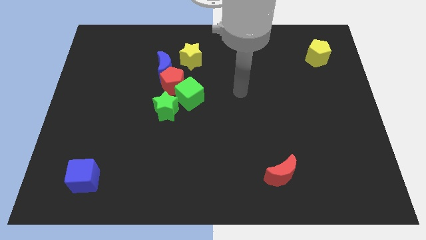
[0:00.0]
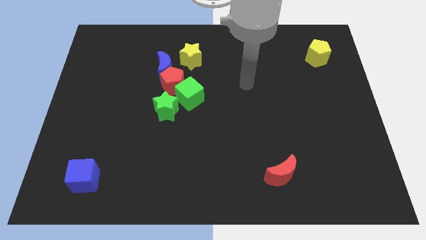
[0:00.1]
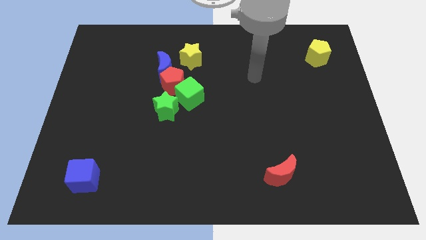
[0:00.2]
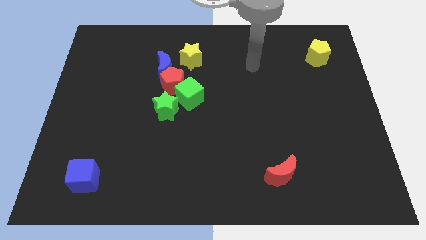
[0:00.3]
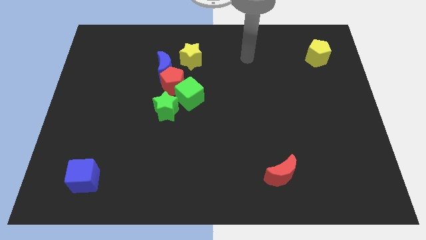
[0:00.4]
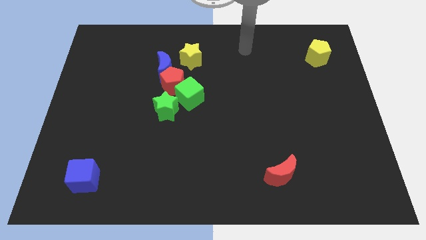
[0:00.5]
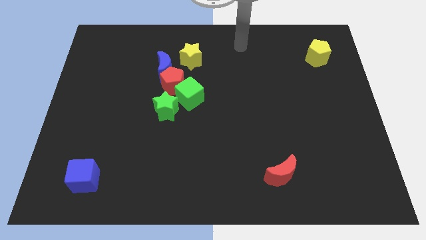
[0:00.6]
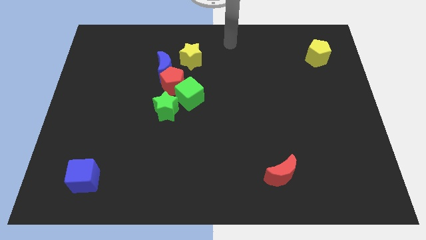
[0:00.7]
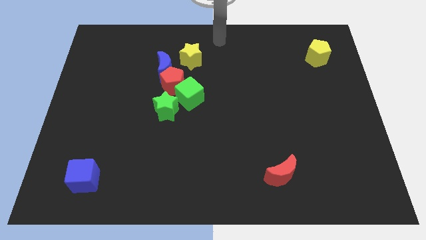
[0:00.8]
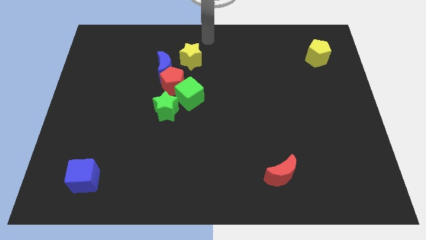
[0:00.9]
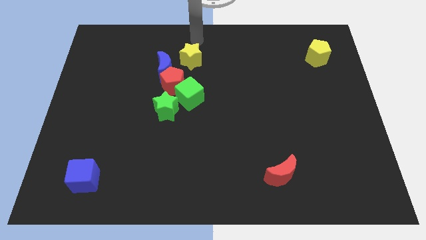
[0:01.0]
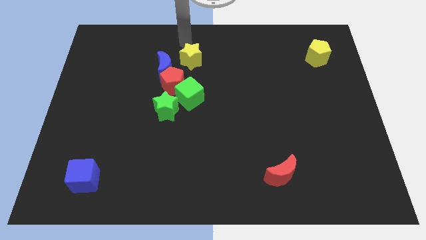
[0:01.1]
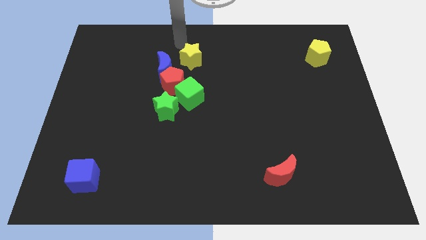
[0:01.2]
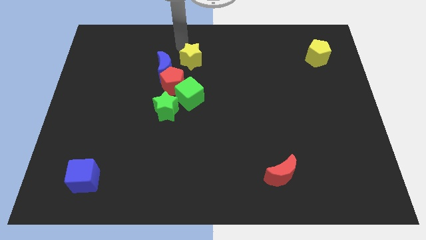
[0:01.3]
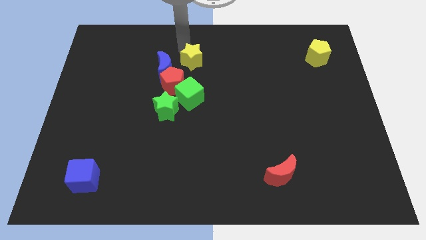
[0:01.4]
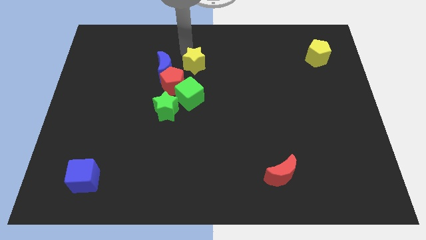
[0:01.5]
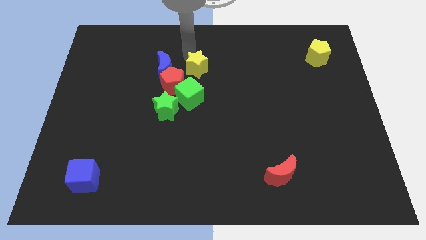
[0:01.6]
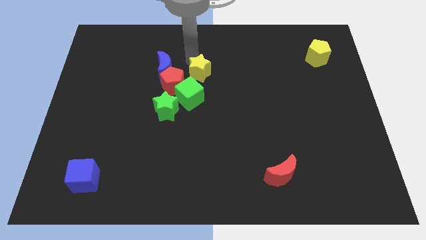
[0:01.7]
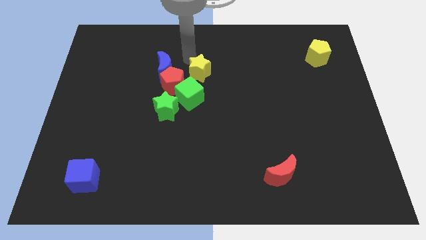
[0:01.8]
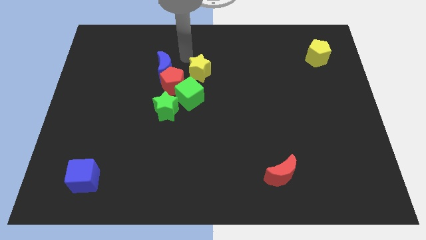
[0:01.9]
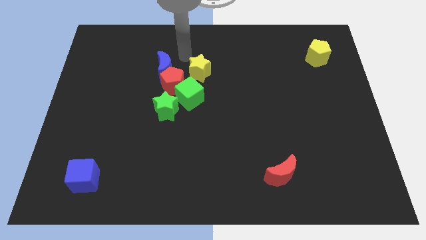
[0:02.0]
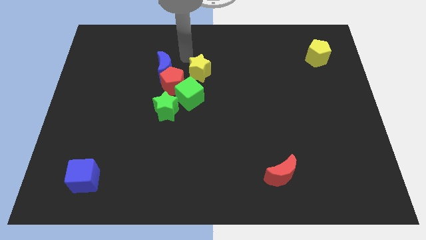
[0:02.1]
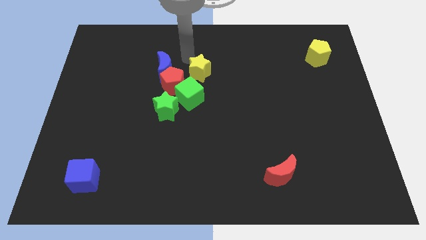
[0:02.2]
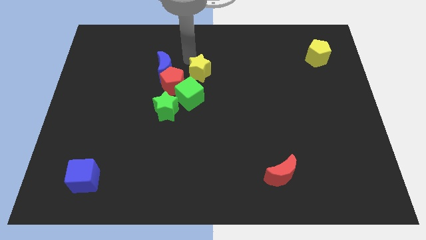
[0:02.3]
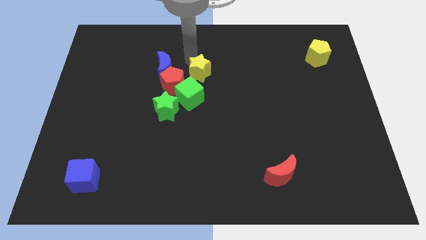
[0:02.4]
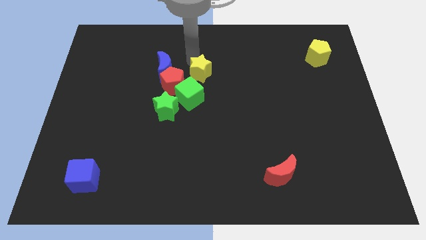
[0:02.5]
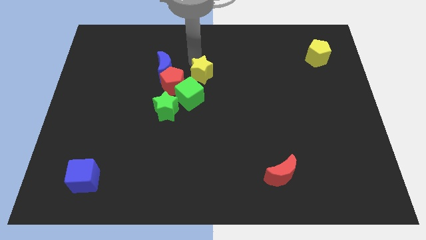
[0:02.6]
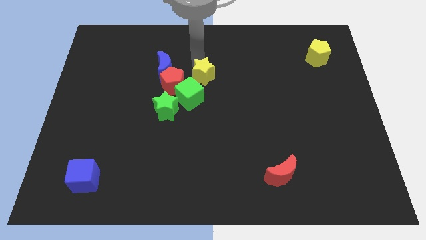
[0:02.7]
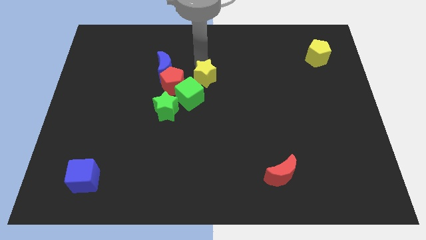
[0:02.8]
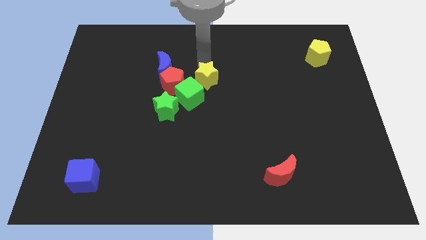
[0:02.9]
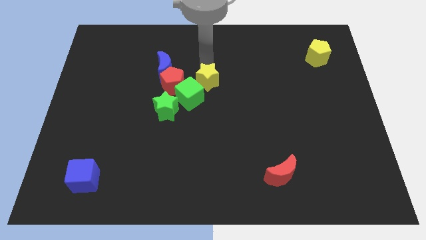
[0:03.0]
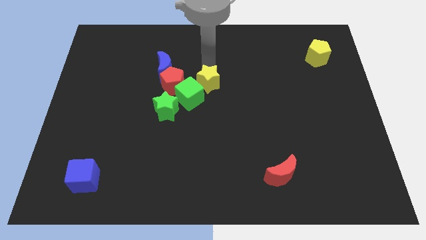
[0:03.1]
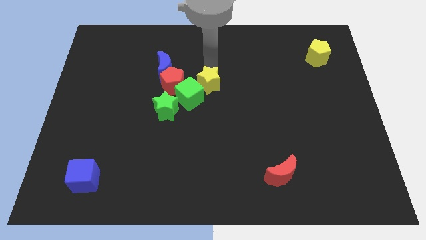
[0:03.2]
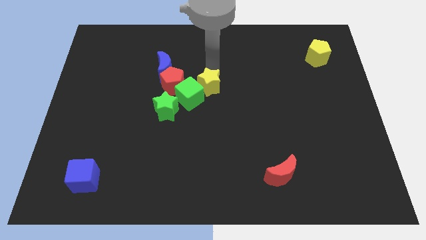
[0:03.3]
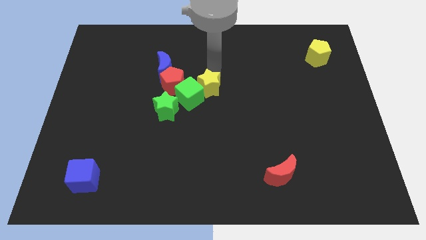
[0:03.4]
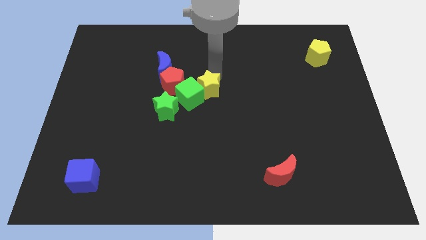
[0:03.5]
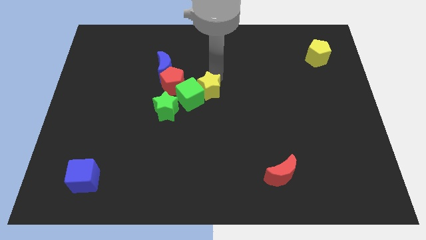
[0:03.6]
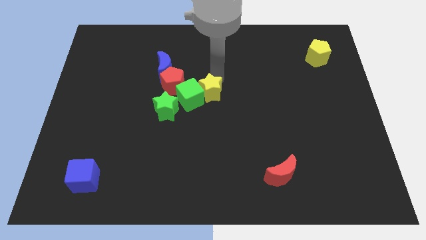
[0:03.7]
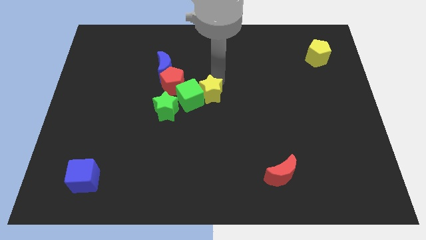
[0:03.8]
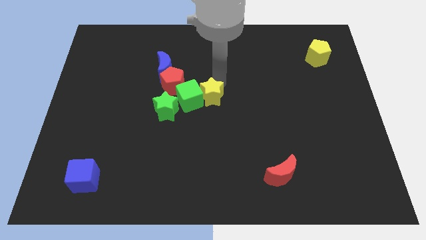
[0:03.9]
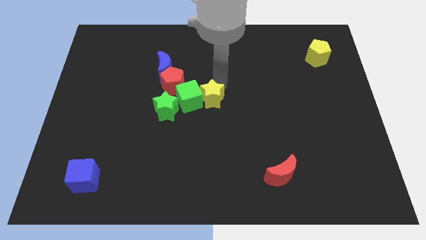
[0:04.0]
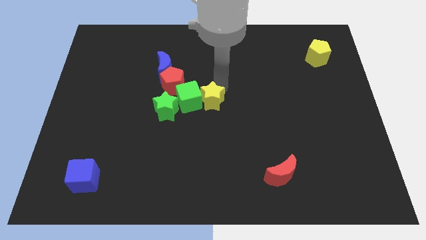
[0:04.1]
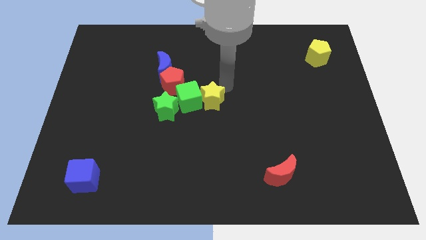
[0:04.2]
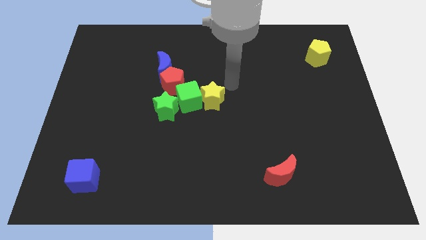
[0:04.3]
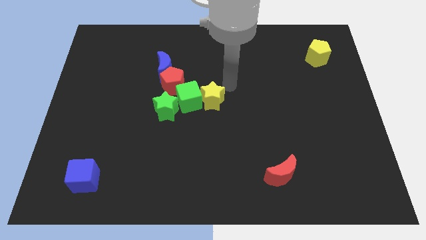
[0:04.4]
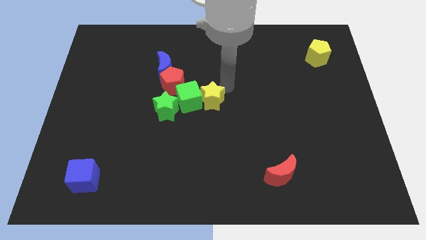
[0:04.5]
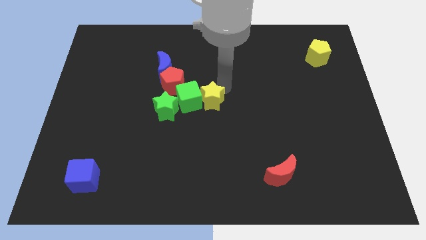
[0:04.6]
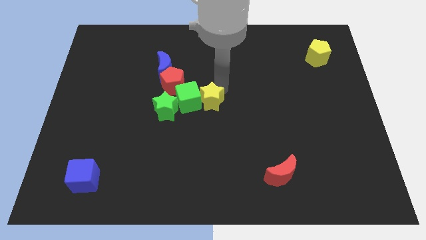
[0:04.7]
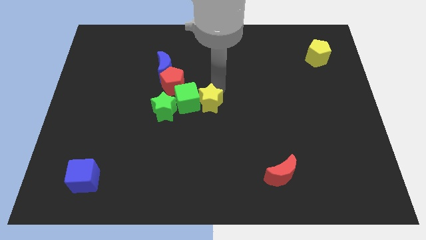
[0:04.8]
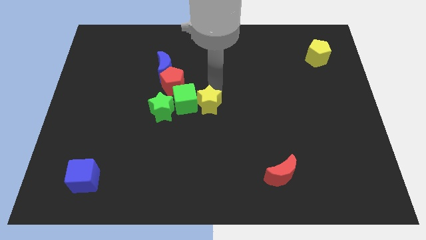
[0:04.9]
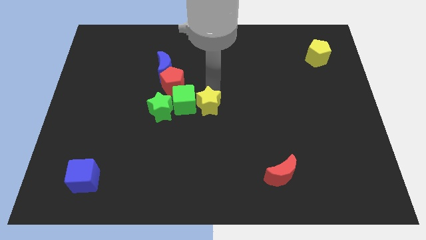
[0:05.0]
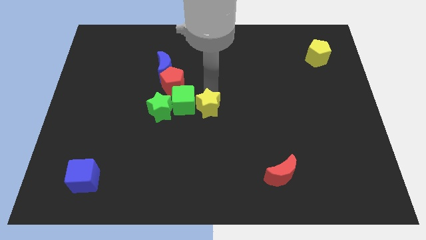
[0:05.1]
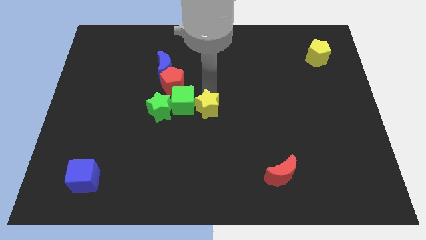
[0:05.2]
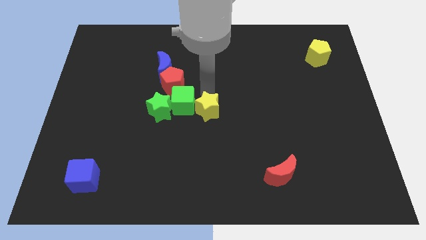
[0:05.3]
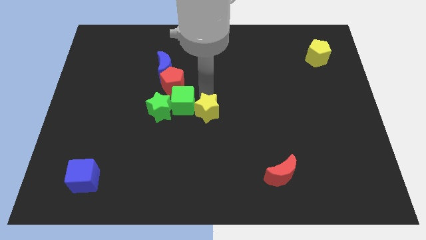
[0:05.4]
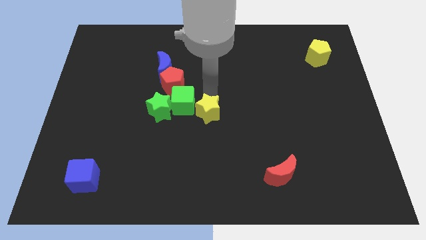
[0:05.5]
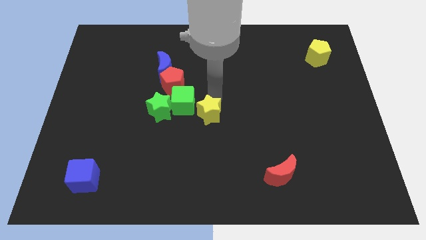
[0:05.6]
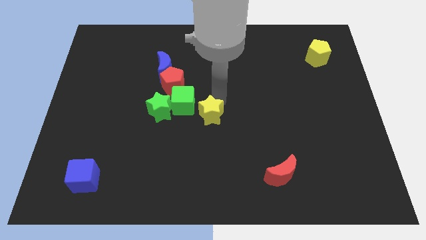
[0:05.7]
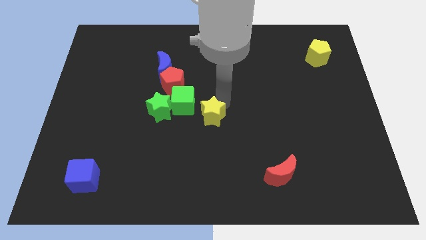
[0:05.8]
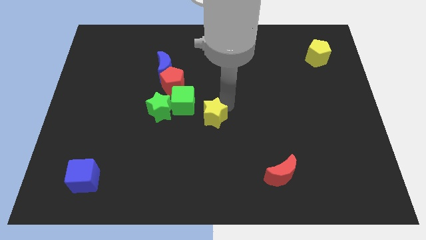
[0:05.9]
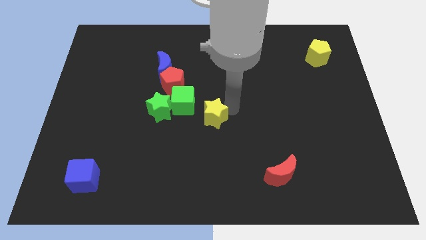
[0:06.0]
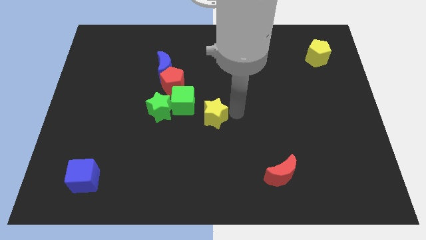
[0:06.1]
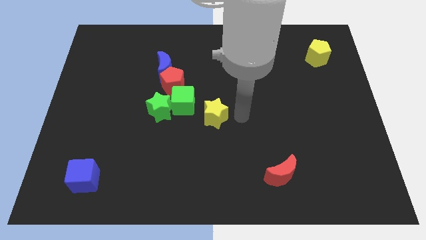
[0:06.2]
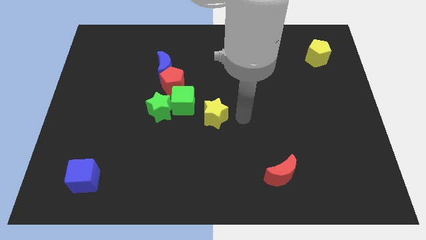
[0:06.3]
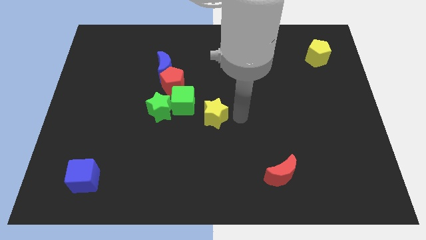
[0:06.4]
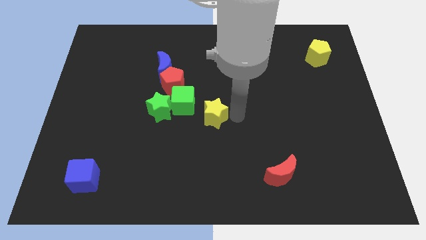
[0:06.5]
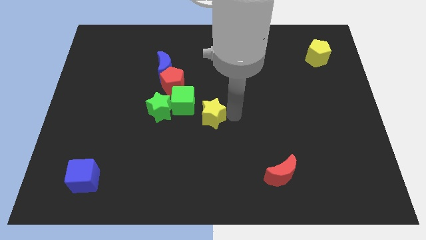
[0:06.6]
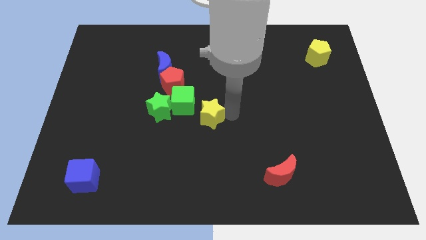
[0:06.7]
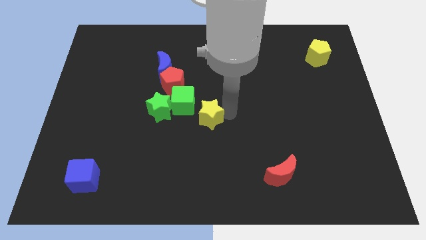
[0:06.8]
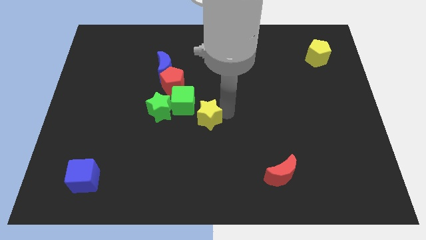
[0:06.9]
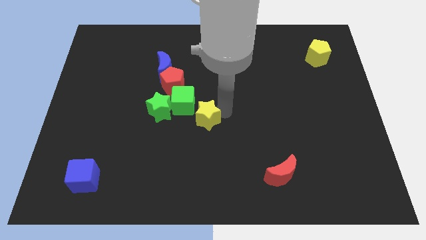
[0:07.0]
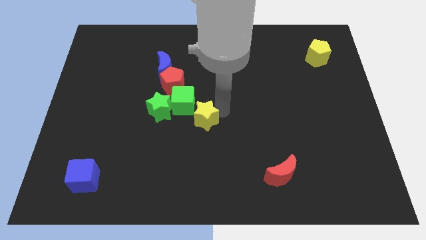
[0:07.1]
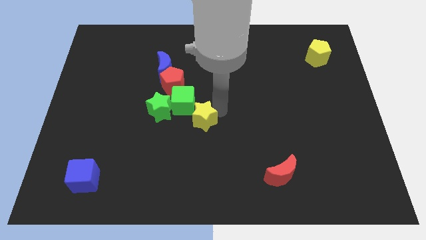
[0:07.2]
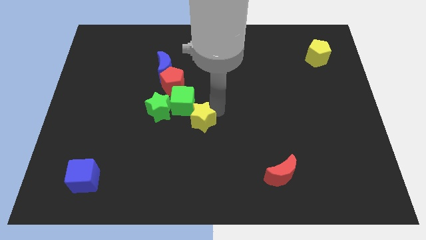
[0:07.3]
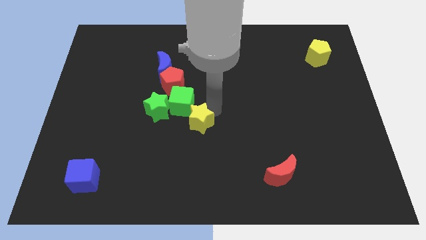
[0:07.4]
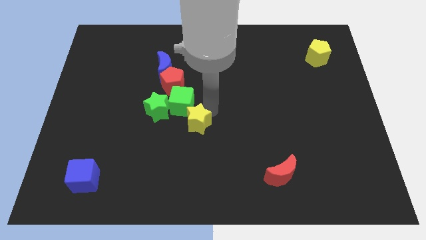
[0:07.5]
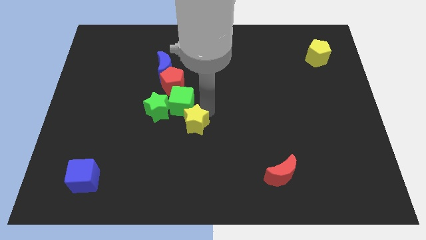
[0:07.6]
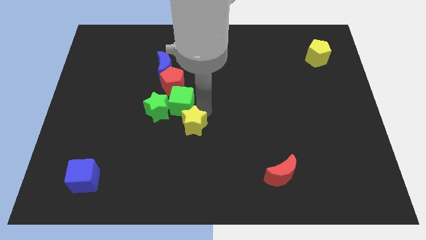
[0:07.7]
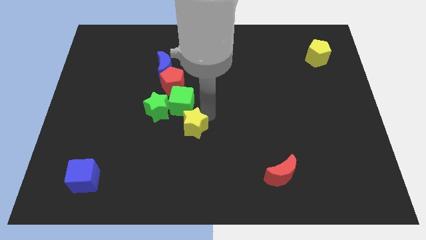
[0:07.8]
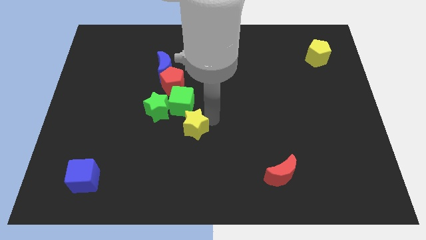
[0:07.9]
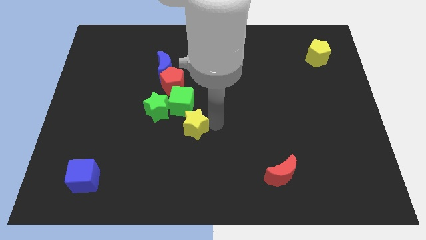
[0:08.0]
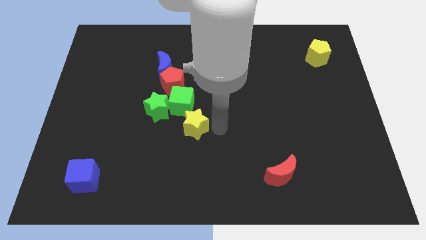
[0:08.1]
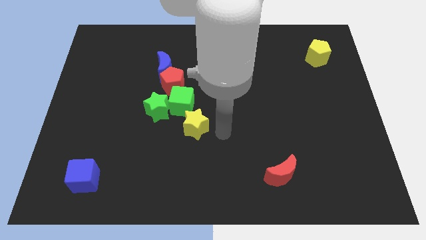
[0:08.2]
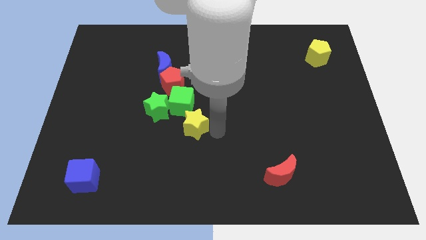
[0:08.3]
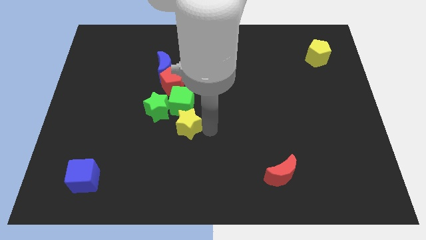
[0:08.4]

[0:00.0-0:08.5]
move the yellow star to the bottom side of the red pentagon
